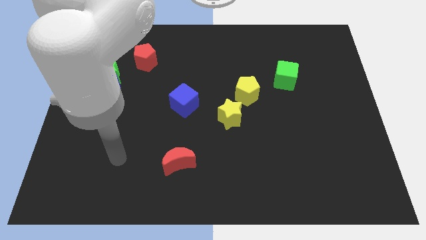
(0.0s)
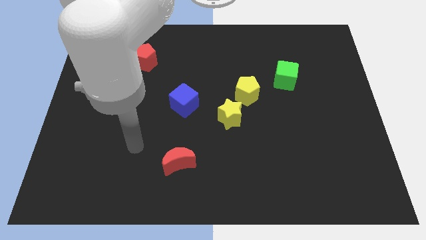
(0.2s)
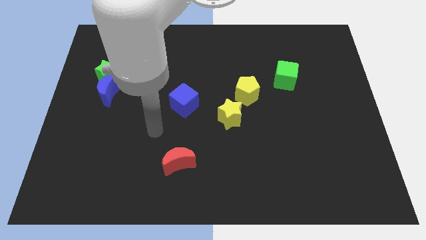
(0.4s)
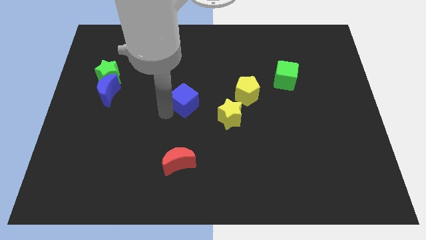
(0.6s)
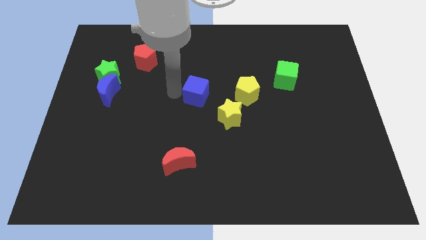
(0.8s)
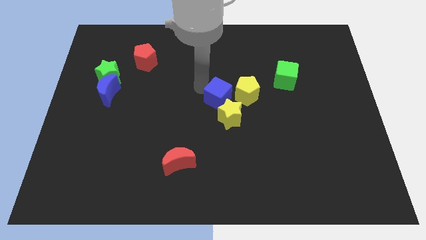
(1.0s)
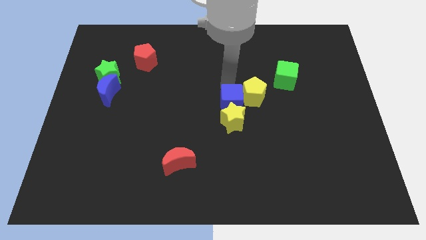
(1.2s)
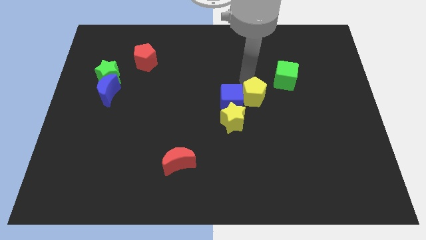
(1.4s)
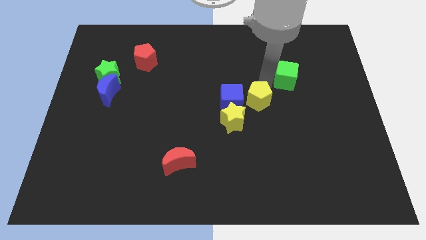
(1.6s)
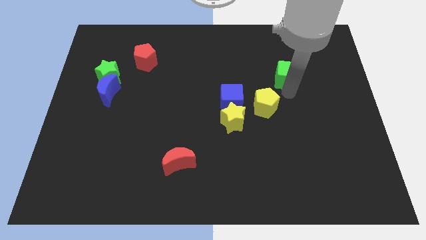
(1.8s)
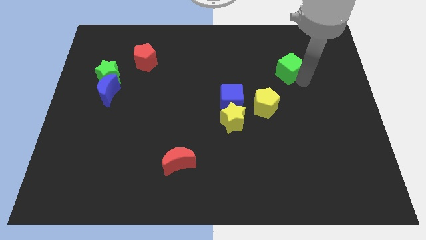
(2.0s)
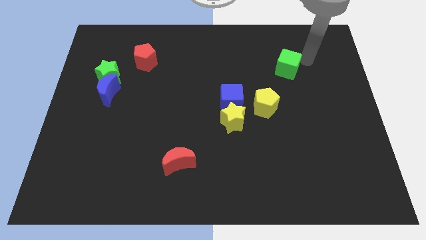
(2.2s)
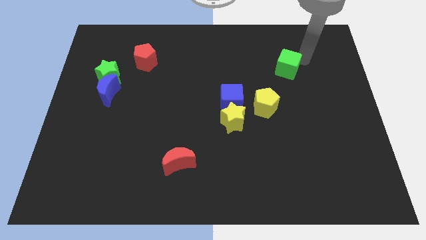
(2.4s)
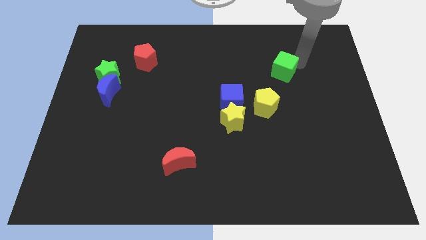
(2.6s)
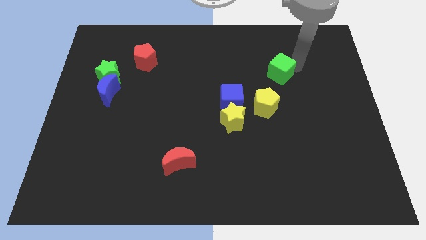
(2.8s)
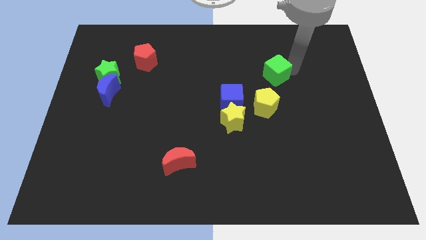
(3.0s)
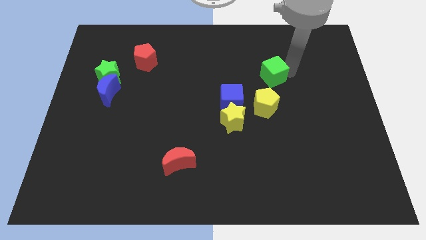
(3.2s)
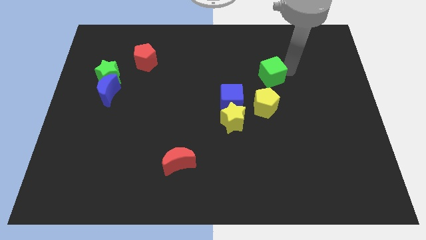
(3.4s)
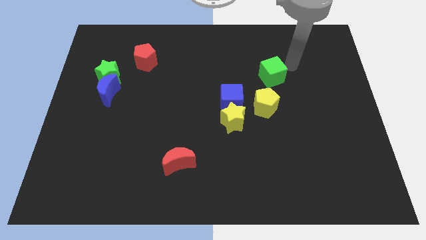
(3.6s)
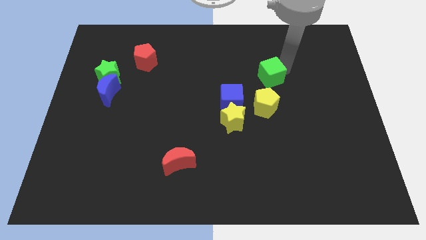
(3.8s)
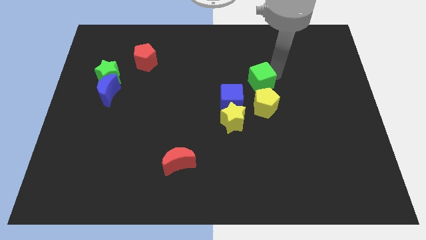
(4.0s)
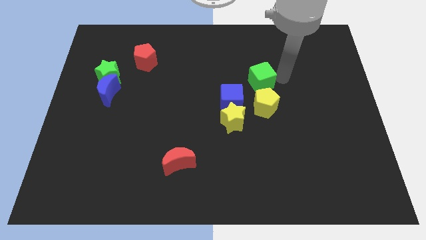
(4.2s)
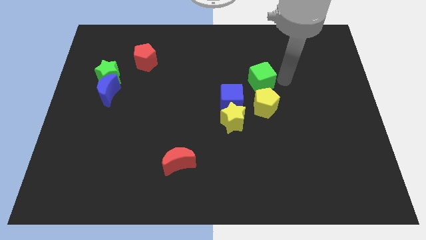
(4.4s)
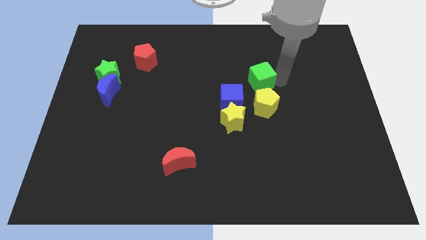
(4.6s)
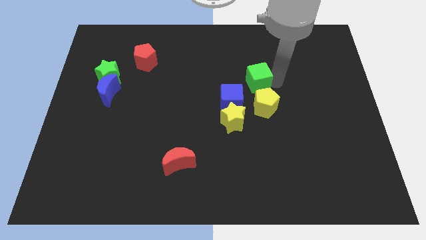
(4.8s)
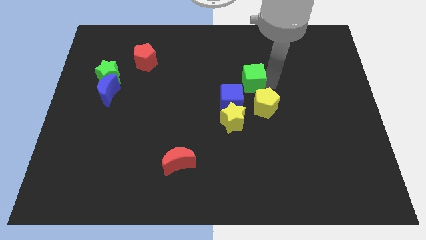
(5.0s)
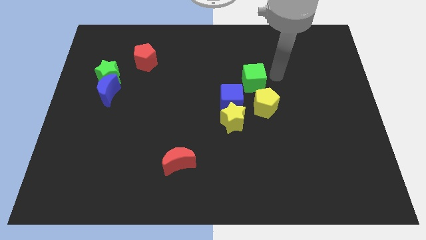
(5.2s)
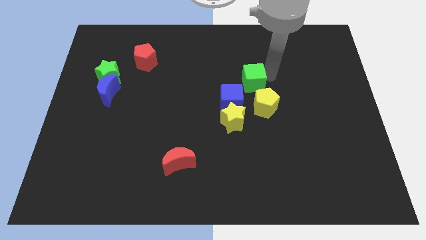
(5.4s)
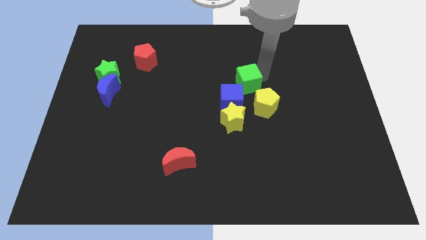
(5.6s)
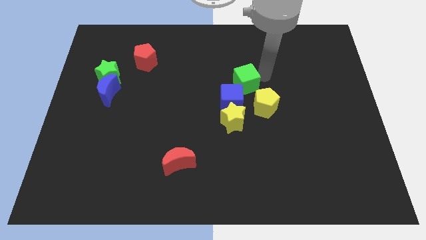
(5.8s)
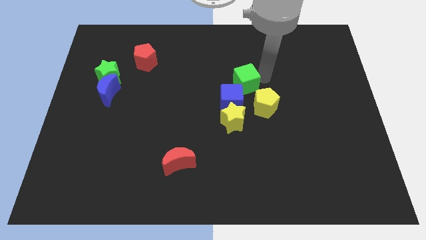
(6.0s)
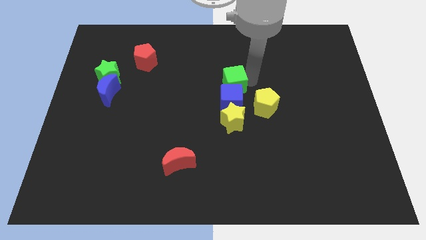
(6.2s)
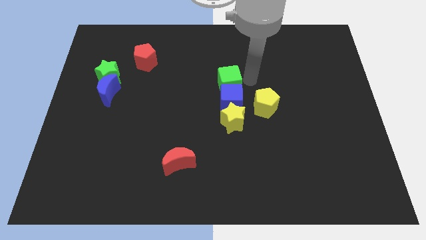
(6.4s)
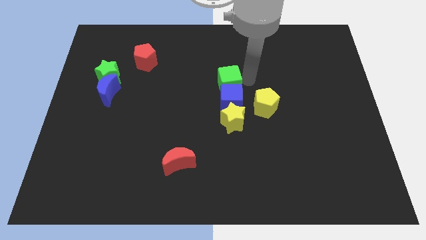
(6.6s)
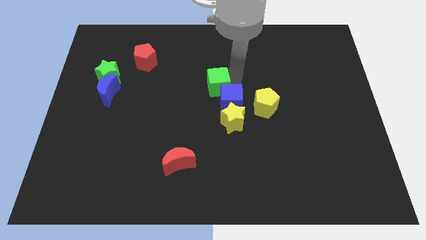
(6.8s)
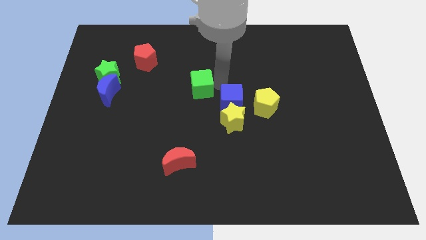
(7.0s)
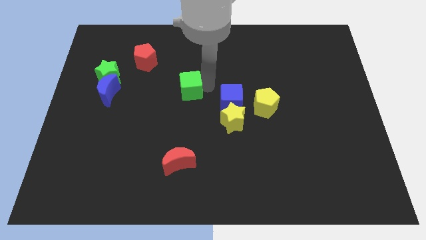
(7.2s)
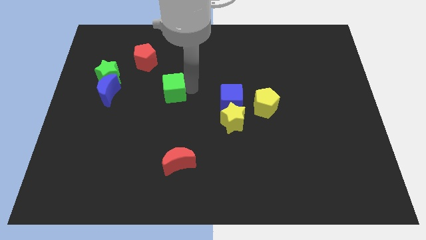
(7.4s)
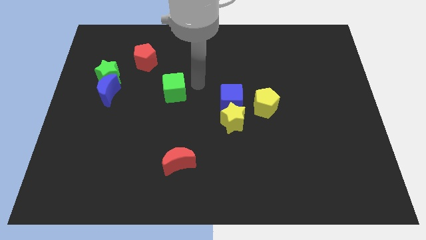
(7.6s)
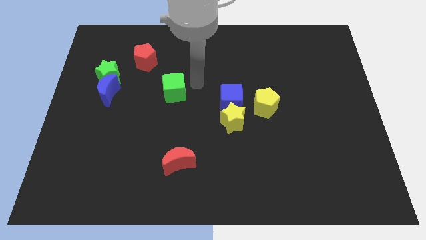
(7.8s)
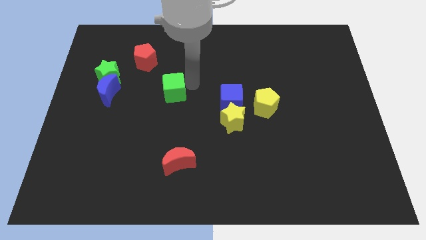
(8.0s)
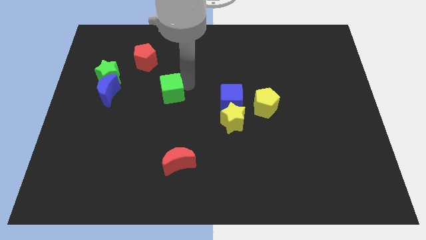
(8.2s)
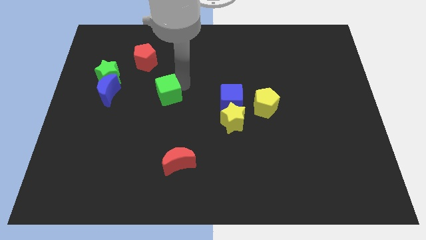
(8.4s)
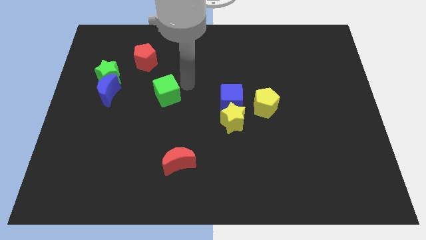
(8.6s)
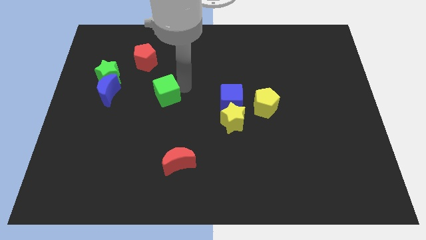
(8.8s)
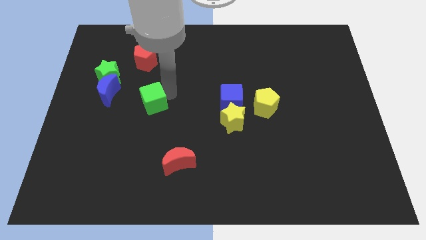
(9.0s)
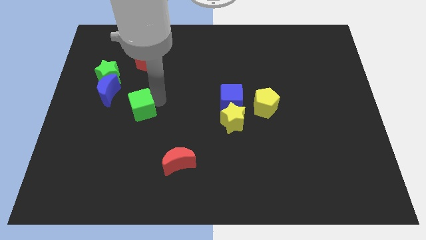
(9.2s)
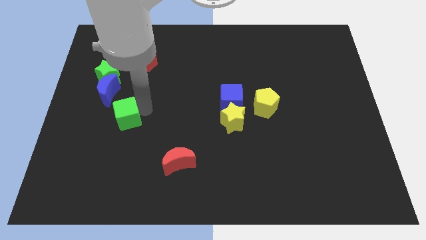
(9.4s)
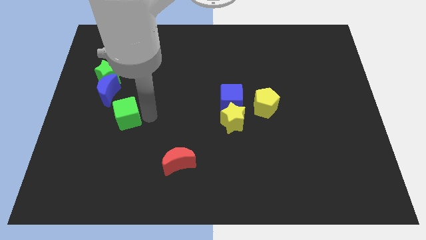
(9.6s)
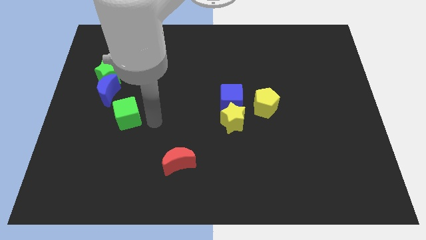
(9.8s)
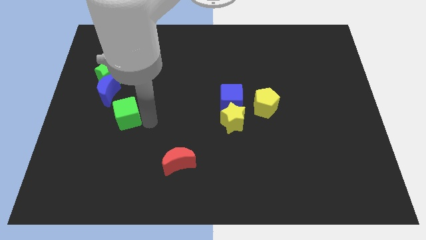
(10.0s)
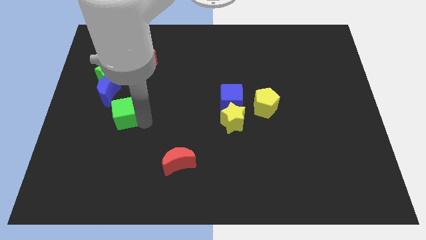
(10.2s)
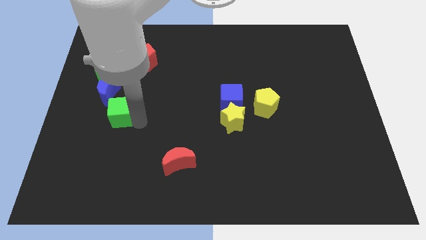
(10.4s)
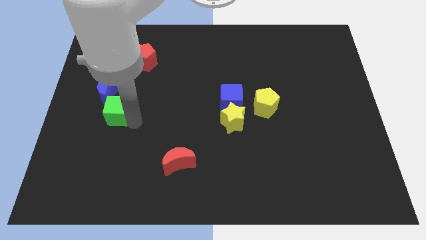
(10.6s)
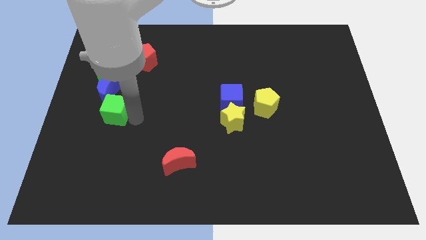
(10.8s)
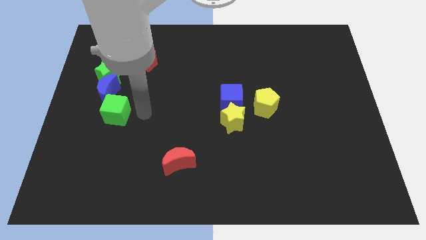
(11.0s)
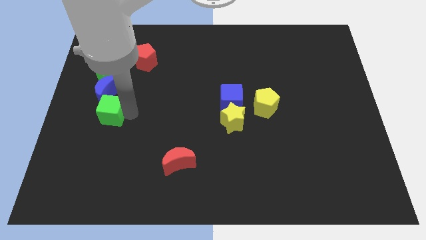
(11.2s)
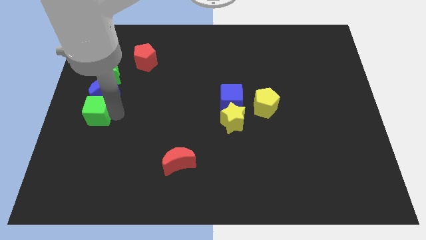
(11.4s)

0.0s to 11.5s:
move the green cube to the center left
